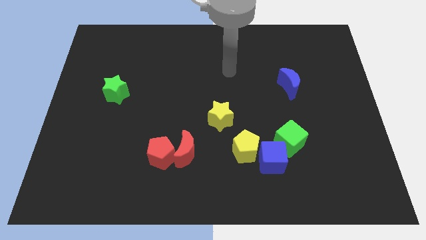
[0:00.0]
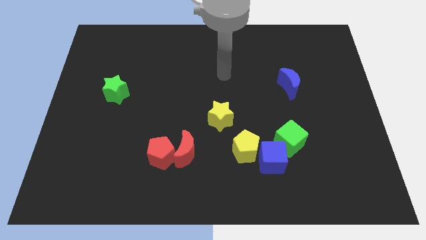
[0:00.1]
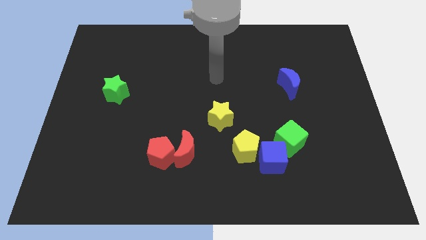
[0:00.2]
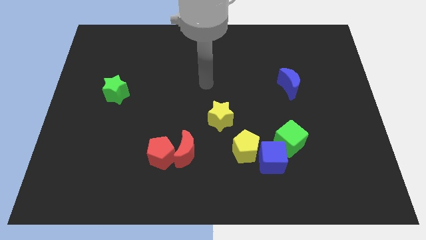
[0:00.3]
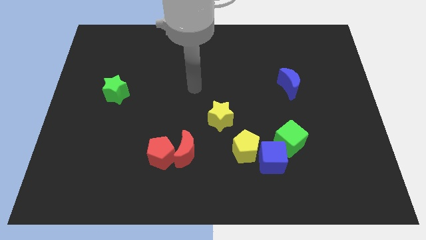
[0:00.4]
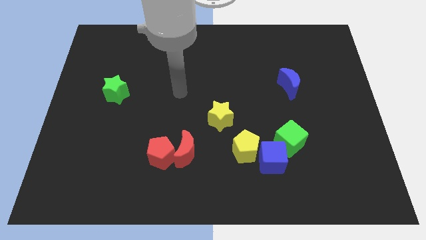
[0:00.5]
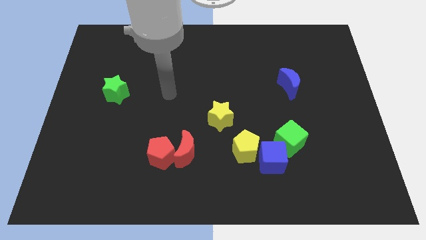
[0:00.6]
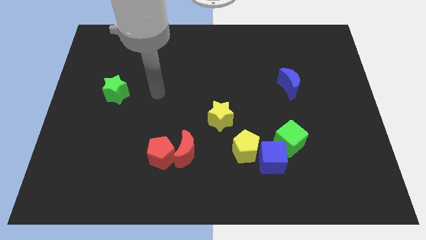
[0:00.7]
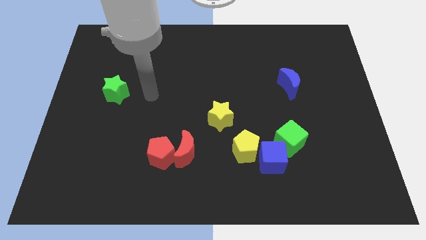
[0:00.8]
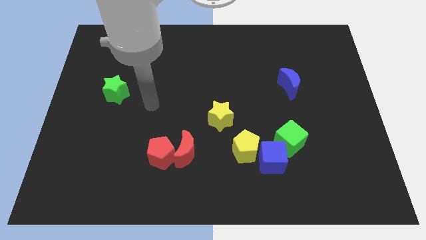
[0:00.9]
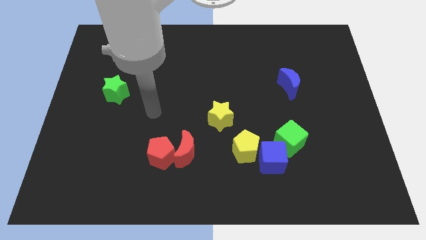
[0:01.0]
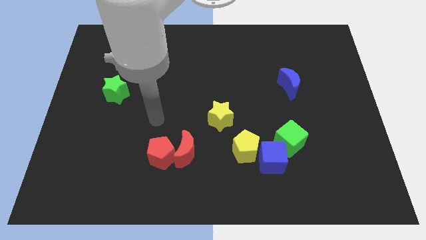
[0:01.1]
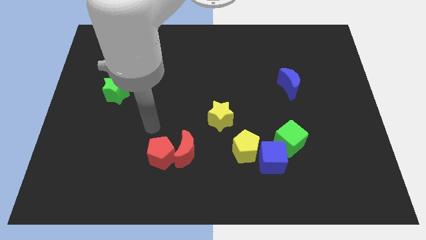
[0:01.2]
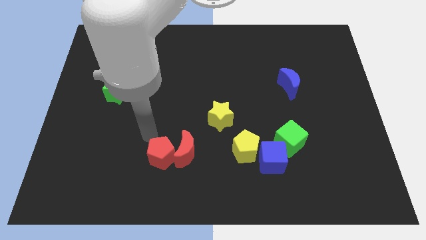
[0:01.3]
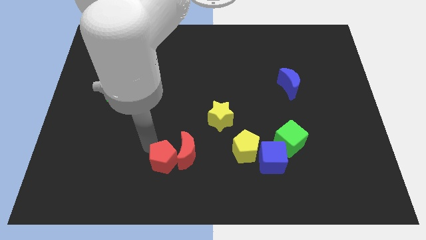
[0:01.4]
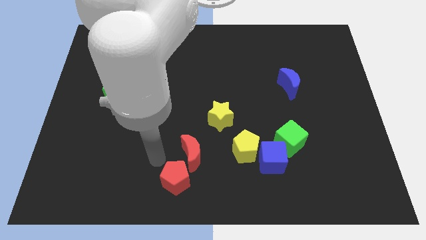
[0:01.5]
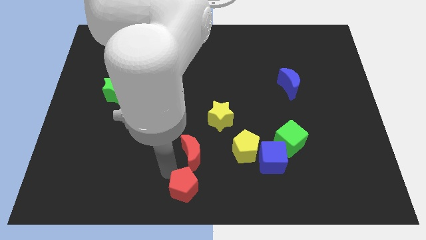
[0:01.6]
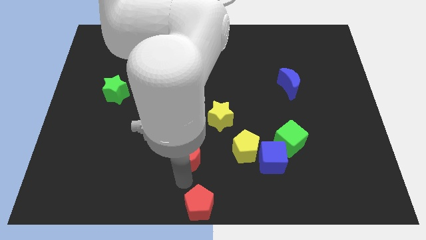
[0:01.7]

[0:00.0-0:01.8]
separate the red moon from the red pentagon

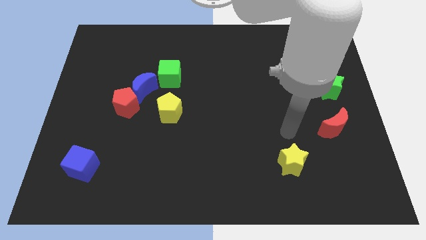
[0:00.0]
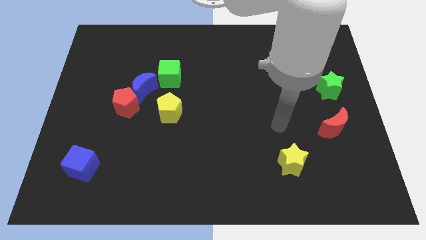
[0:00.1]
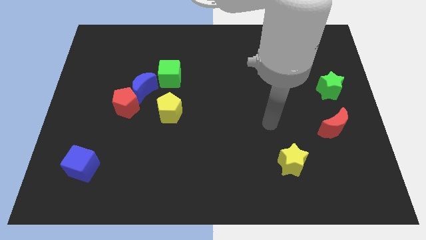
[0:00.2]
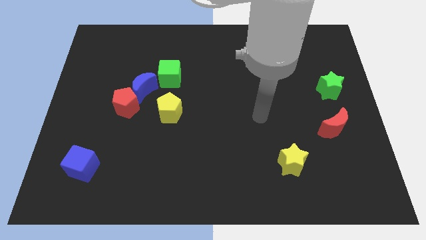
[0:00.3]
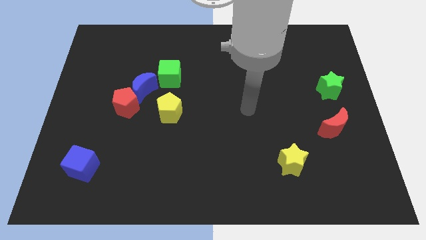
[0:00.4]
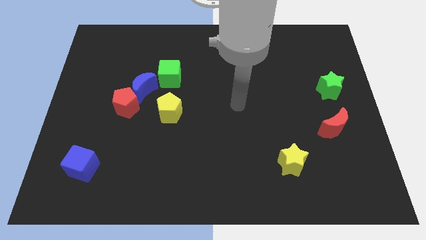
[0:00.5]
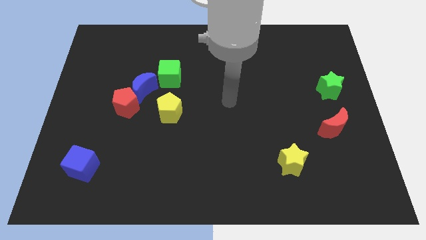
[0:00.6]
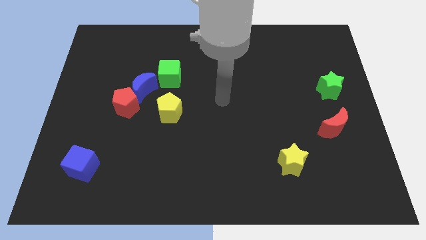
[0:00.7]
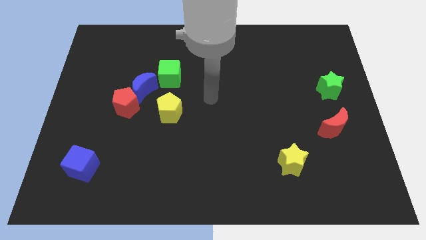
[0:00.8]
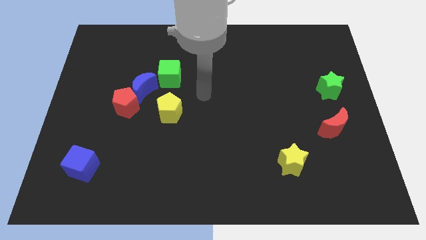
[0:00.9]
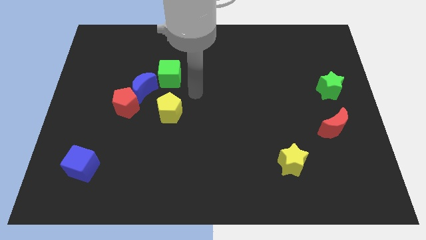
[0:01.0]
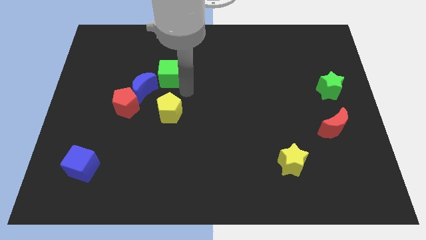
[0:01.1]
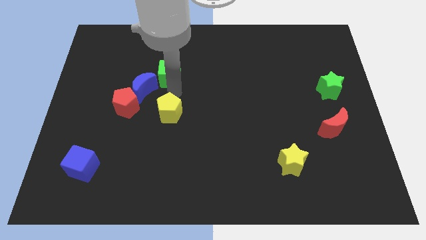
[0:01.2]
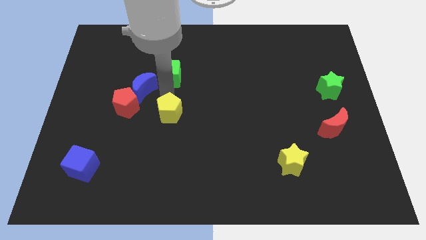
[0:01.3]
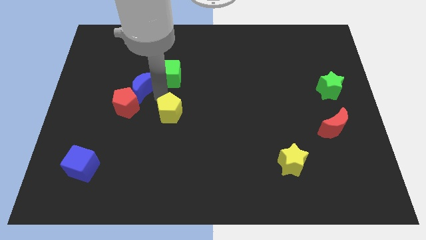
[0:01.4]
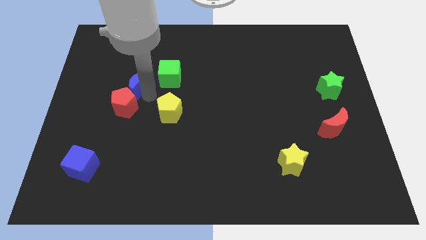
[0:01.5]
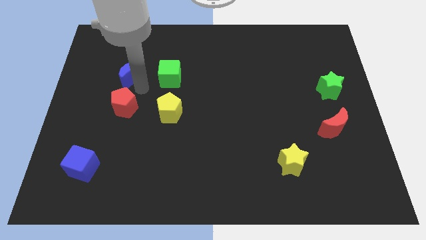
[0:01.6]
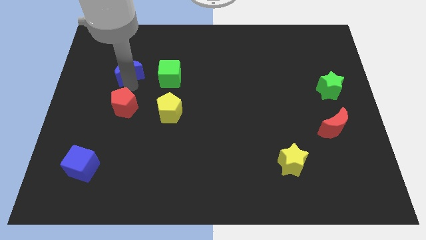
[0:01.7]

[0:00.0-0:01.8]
move the red pentagon away from the blue moon

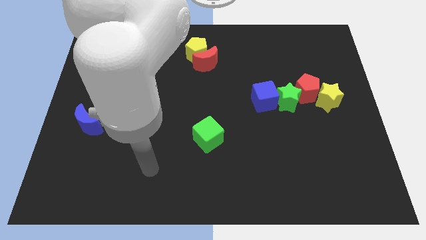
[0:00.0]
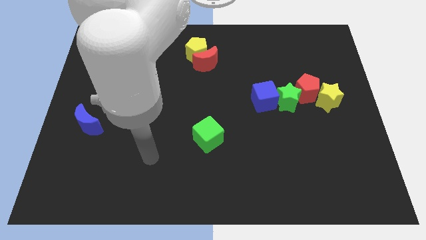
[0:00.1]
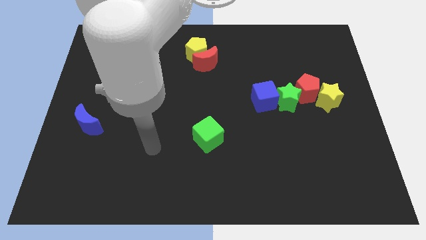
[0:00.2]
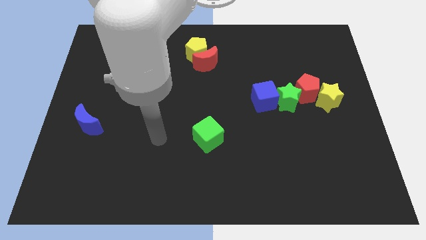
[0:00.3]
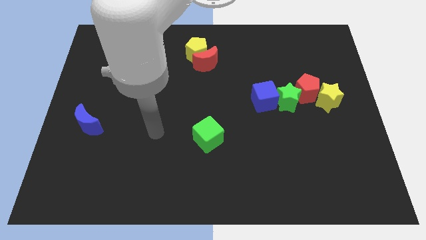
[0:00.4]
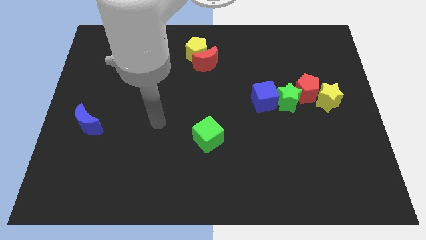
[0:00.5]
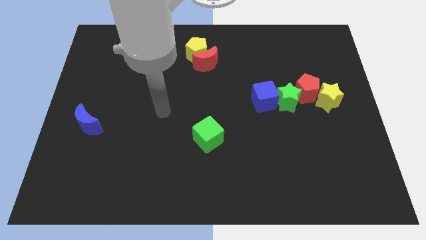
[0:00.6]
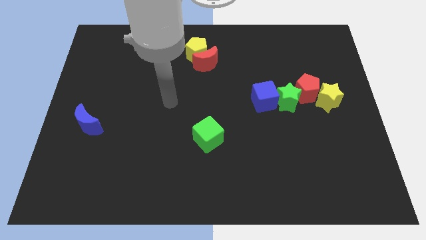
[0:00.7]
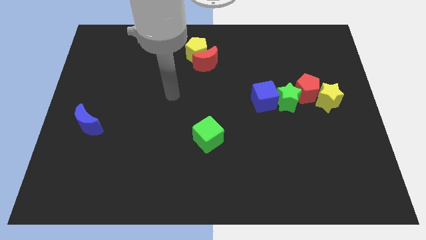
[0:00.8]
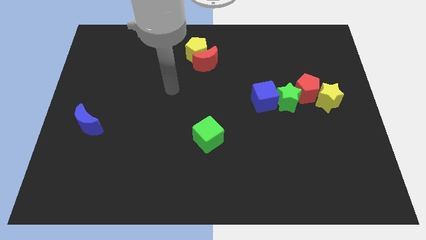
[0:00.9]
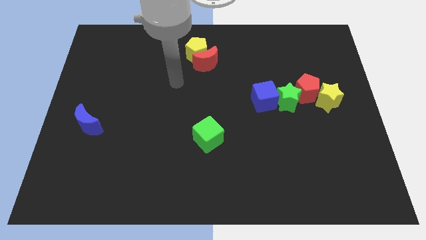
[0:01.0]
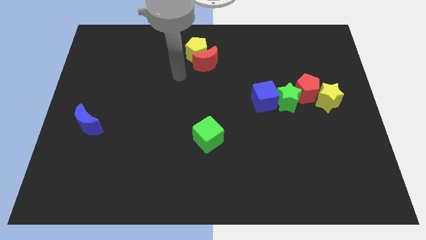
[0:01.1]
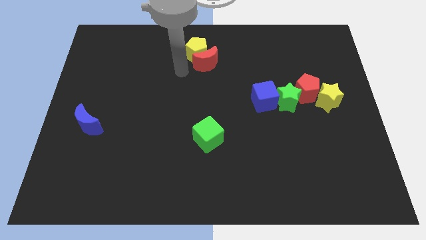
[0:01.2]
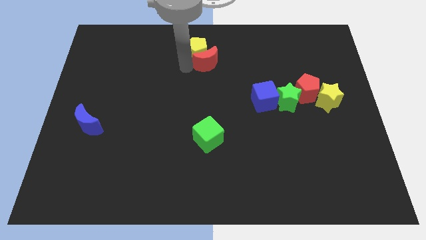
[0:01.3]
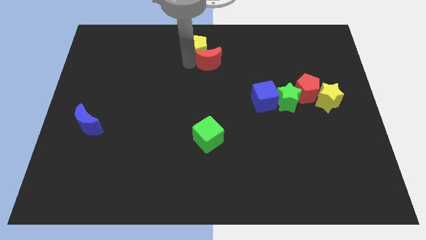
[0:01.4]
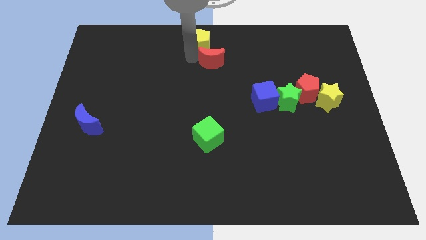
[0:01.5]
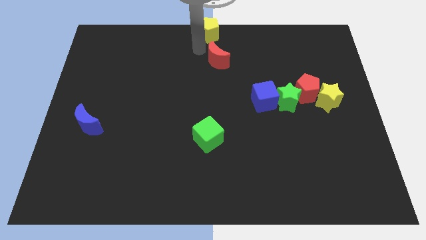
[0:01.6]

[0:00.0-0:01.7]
separate the red moon from the yellow pentagon

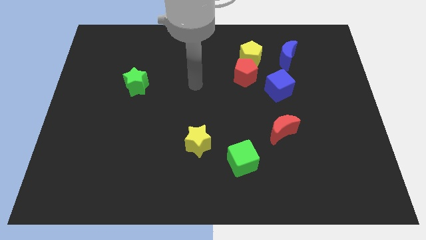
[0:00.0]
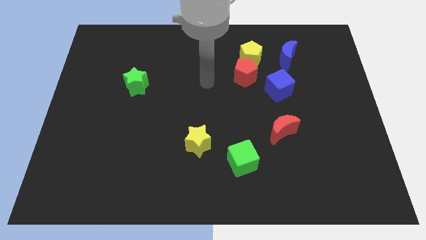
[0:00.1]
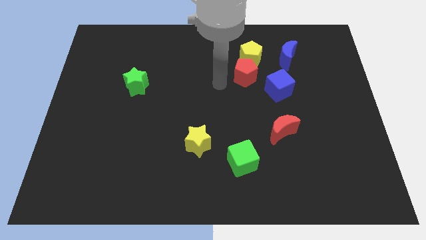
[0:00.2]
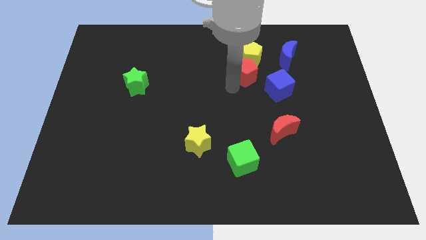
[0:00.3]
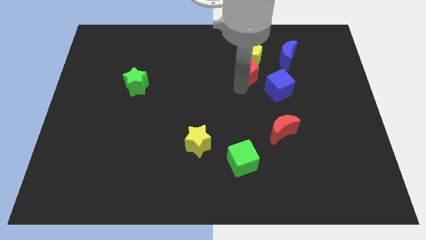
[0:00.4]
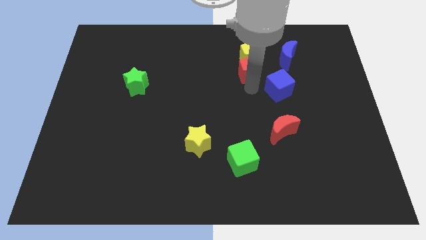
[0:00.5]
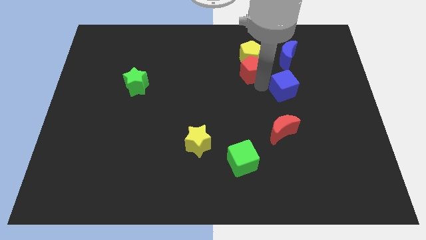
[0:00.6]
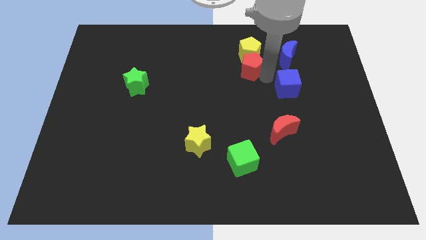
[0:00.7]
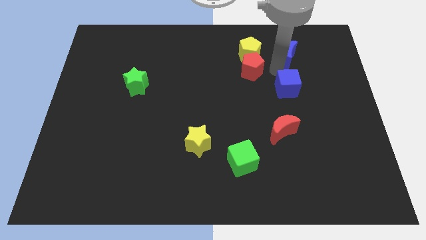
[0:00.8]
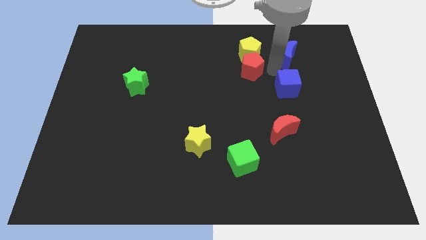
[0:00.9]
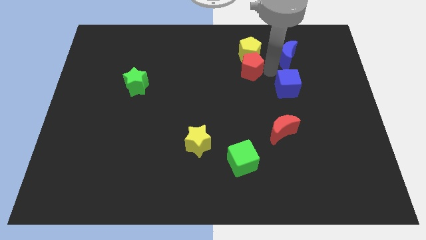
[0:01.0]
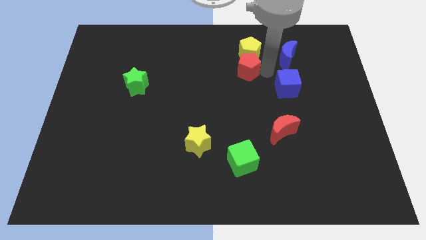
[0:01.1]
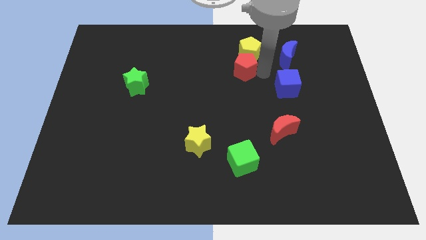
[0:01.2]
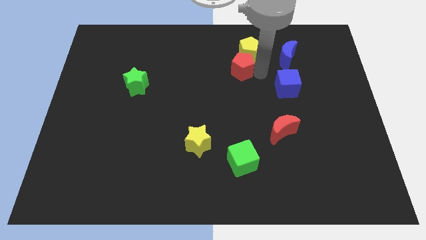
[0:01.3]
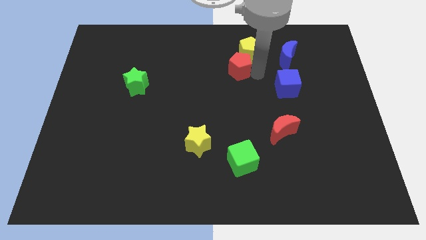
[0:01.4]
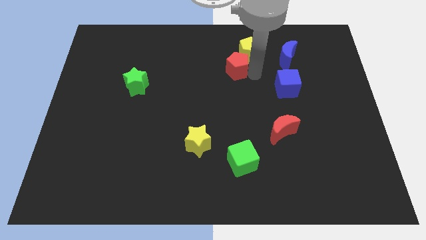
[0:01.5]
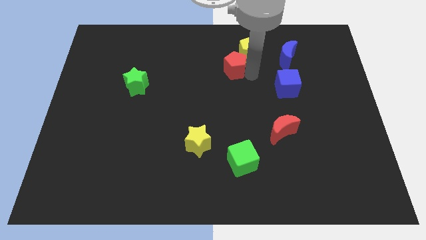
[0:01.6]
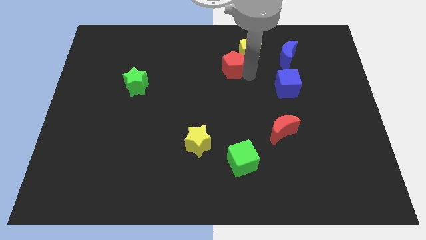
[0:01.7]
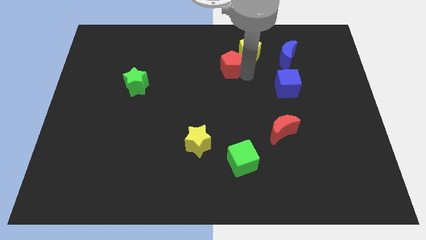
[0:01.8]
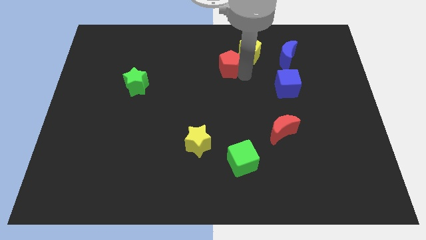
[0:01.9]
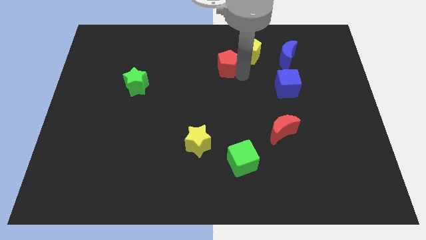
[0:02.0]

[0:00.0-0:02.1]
separate the red pentagon from the yellow pentagon and blue cube

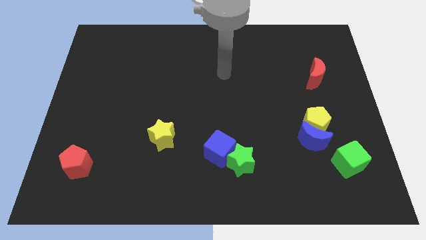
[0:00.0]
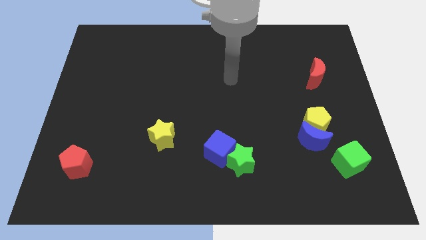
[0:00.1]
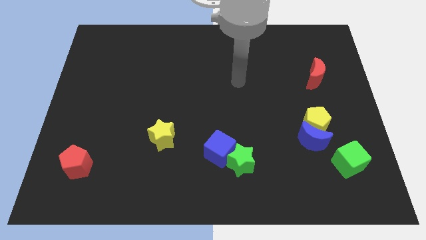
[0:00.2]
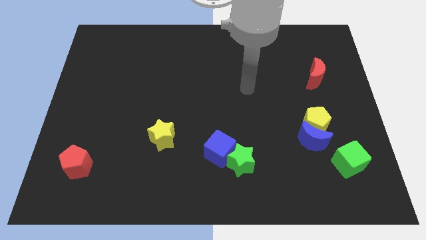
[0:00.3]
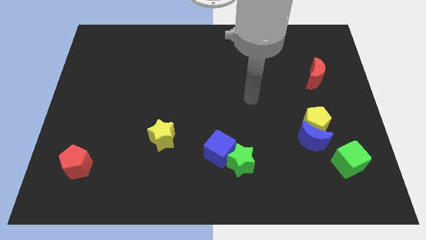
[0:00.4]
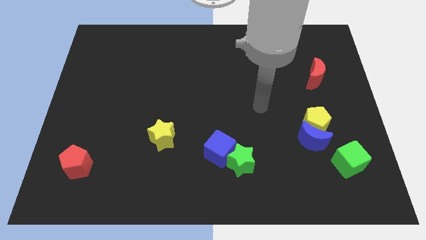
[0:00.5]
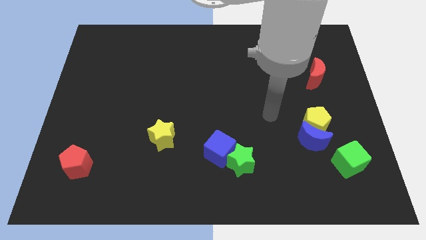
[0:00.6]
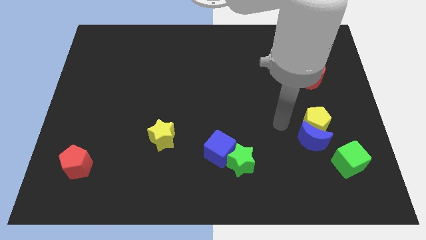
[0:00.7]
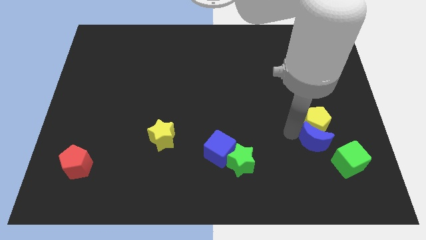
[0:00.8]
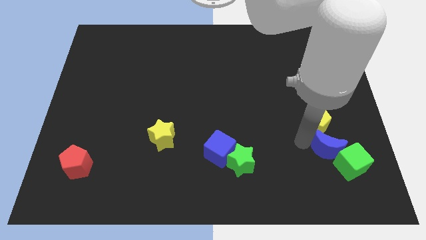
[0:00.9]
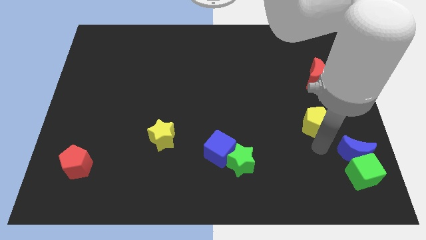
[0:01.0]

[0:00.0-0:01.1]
move the yellow pentagon away from the blue moon

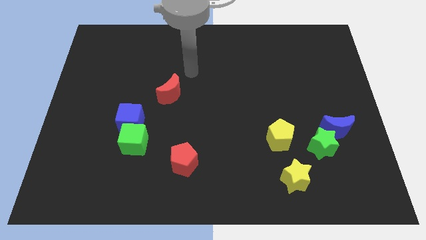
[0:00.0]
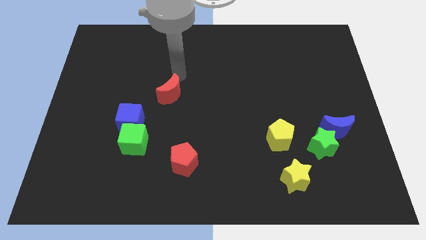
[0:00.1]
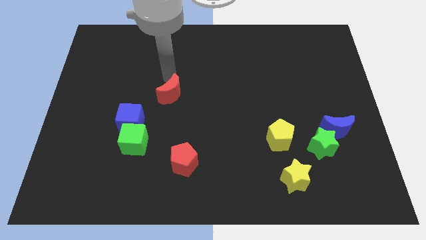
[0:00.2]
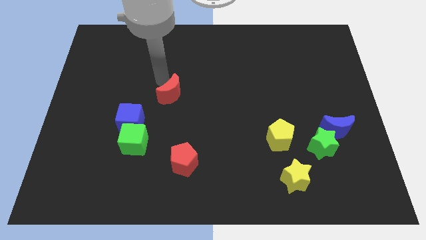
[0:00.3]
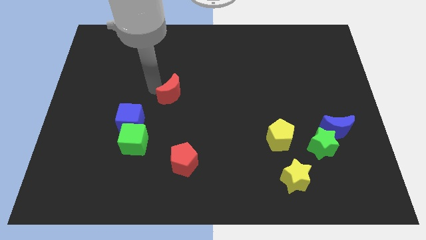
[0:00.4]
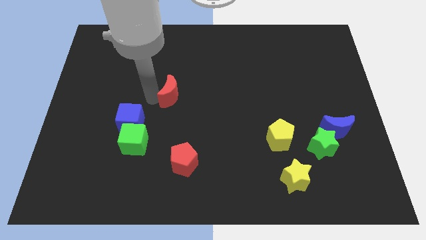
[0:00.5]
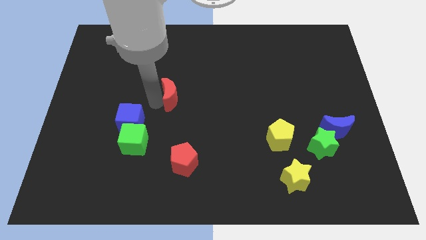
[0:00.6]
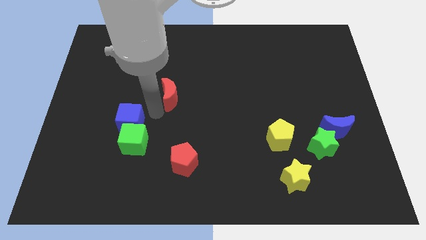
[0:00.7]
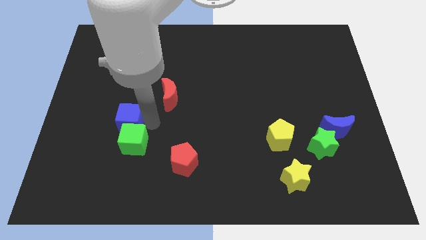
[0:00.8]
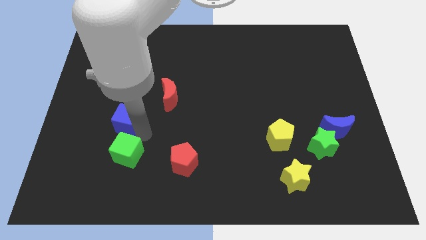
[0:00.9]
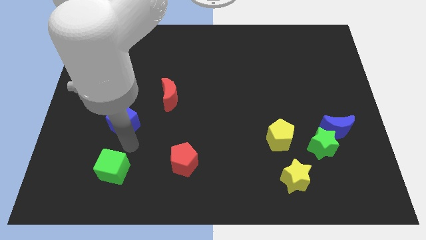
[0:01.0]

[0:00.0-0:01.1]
pull the blue cube apart from the green cube
